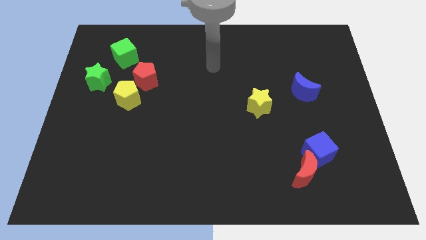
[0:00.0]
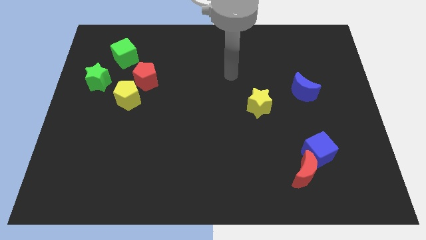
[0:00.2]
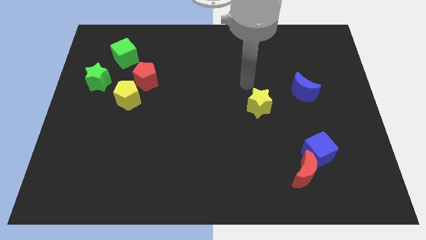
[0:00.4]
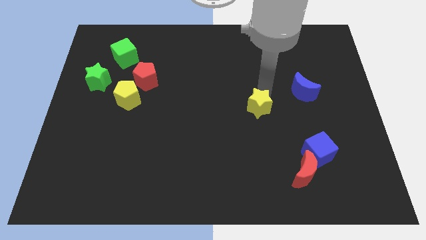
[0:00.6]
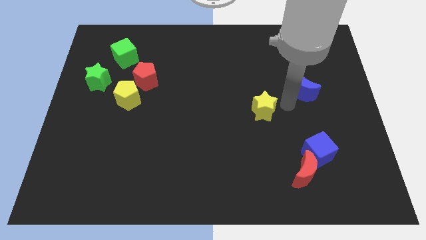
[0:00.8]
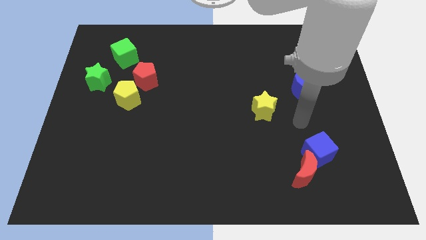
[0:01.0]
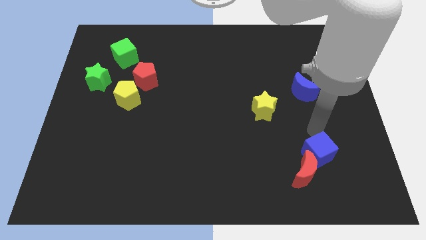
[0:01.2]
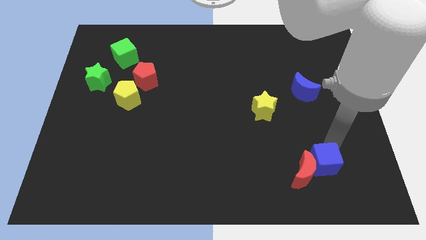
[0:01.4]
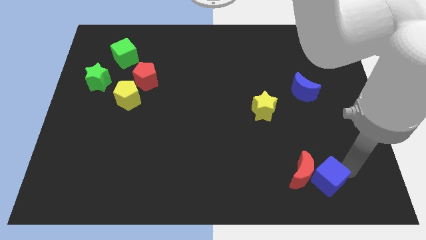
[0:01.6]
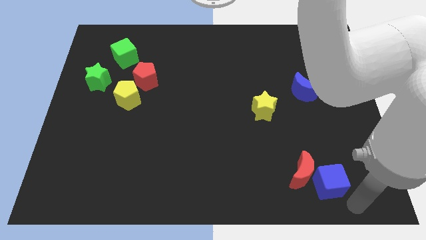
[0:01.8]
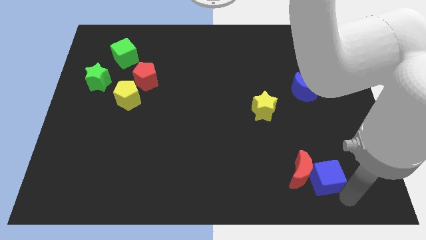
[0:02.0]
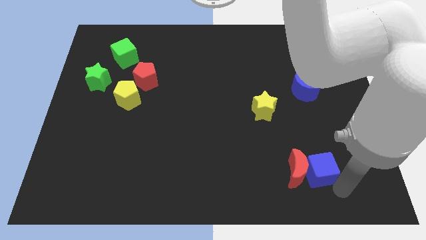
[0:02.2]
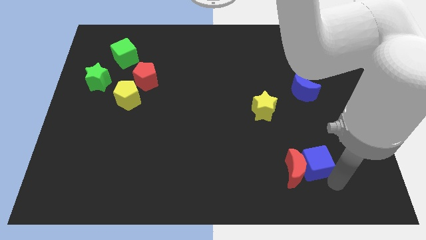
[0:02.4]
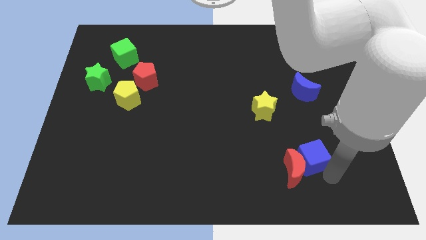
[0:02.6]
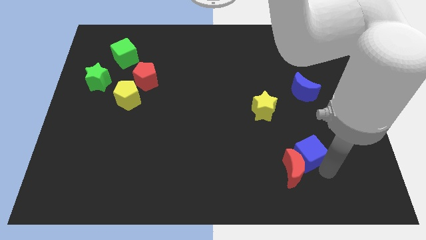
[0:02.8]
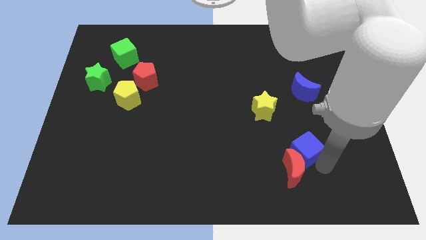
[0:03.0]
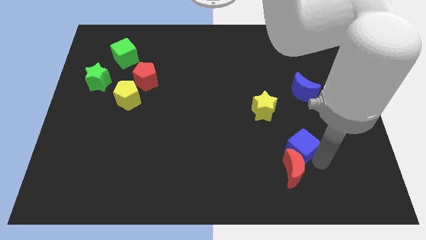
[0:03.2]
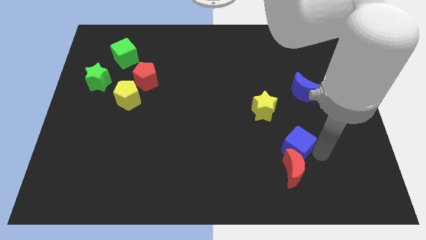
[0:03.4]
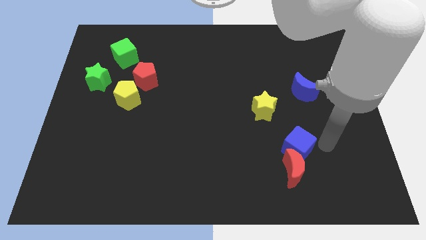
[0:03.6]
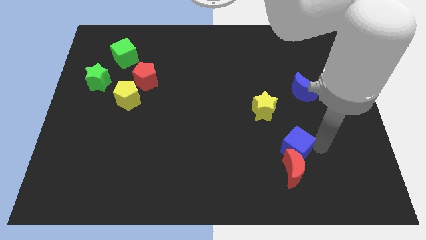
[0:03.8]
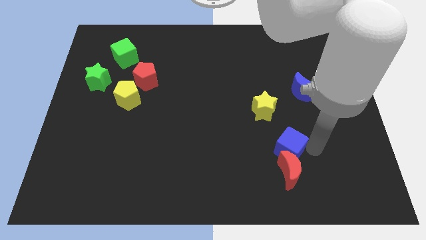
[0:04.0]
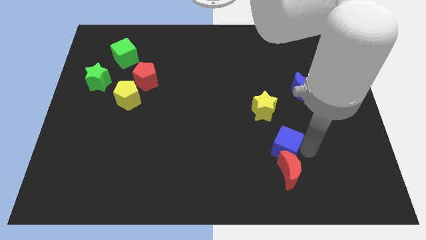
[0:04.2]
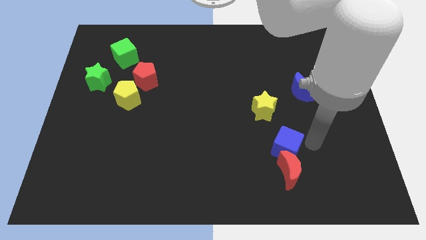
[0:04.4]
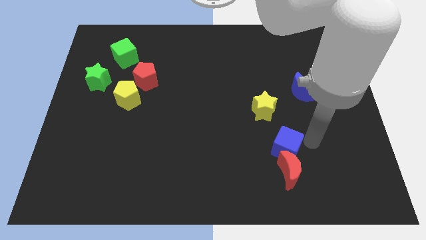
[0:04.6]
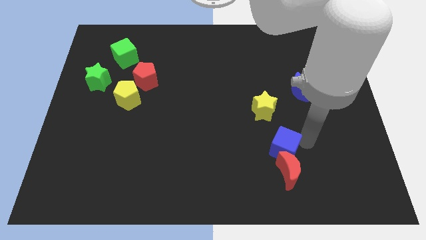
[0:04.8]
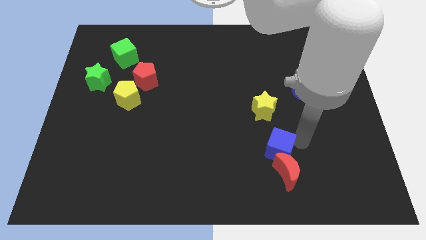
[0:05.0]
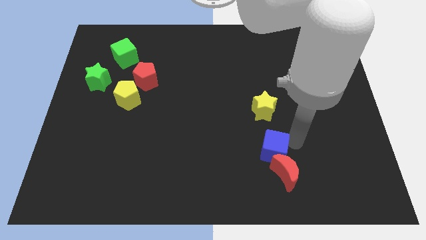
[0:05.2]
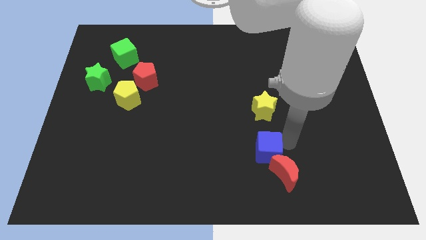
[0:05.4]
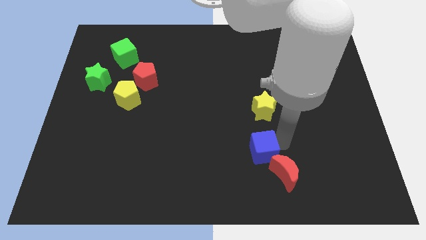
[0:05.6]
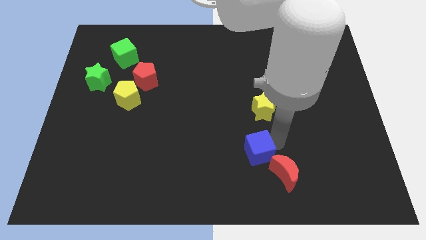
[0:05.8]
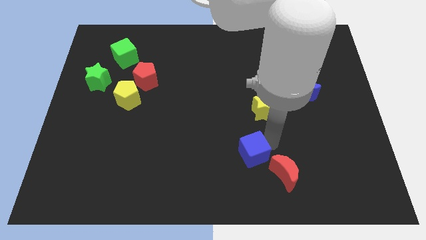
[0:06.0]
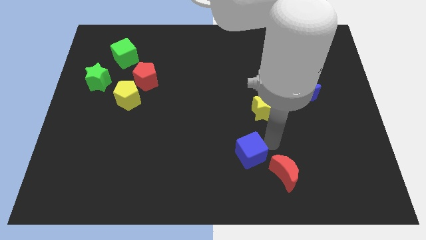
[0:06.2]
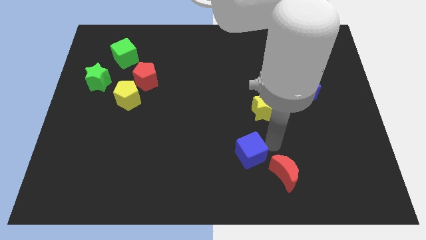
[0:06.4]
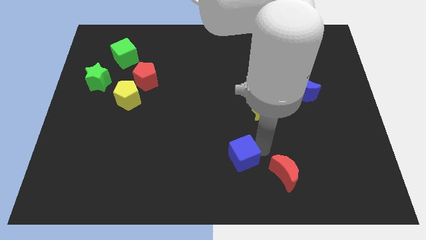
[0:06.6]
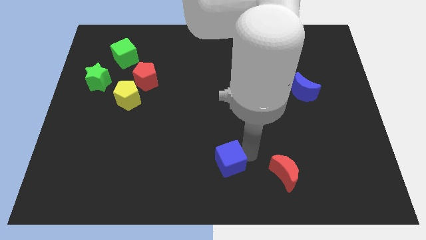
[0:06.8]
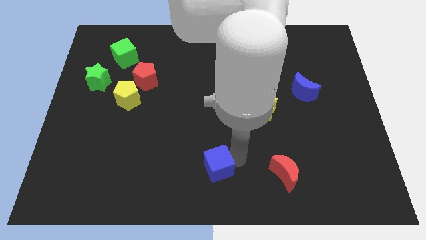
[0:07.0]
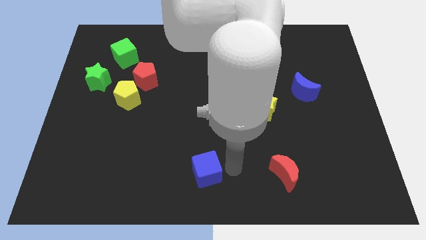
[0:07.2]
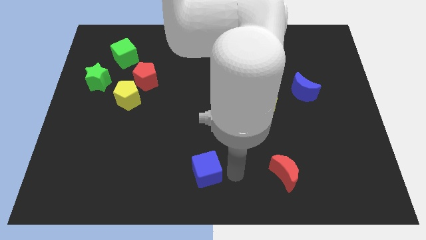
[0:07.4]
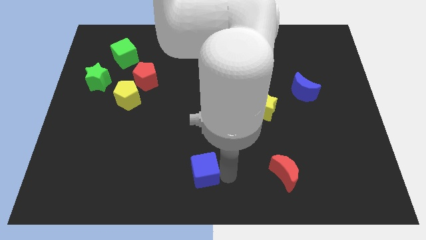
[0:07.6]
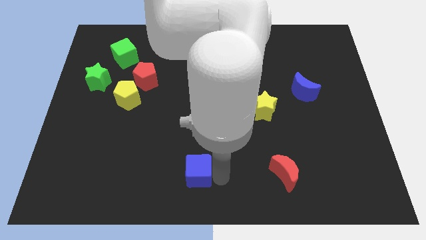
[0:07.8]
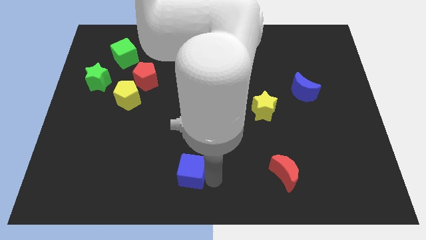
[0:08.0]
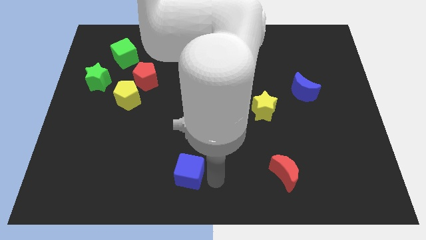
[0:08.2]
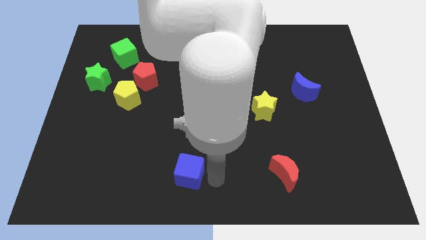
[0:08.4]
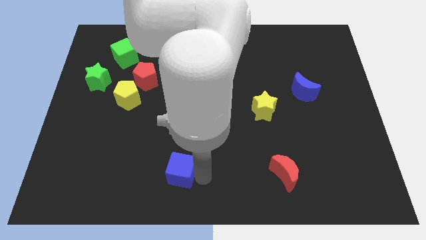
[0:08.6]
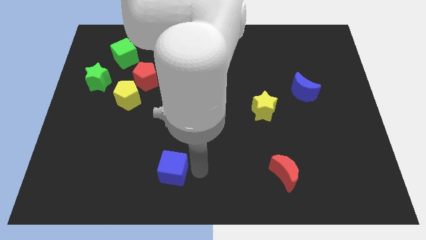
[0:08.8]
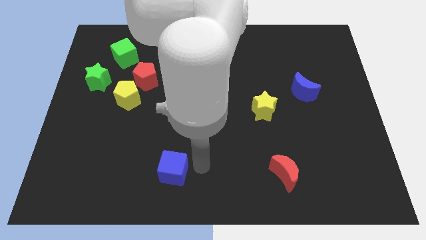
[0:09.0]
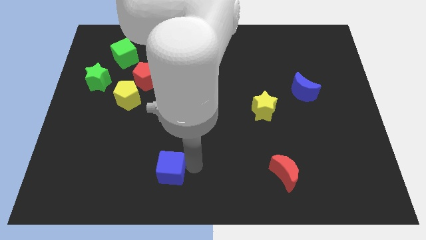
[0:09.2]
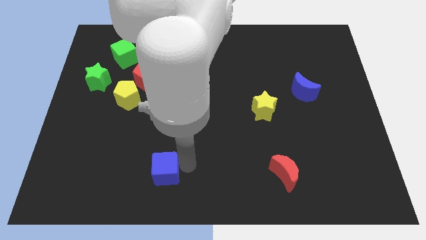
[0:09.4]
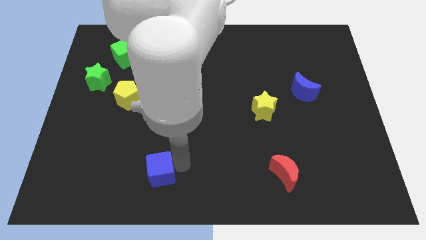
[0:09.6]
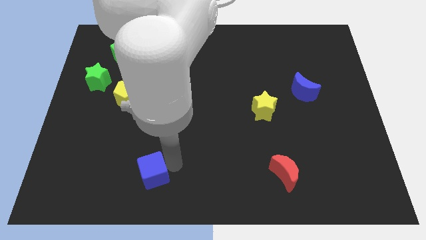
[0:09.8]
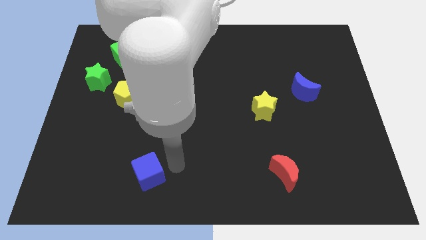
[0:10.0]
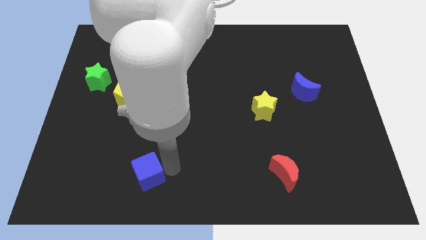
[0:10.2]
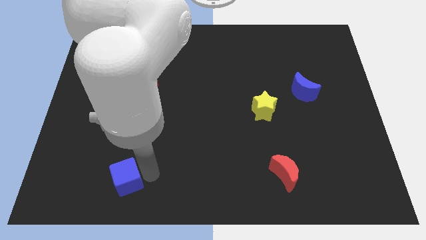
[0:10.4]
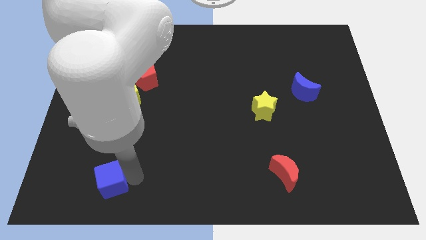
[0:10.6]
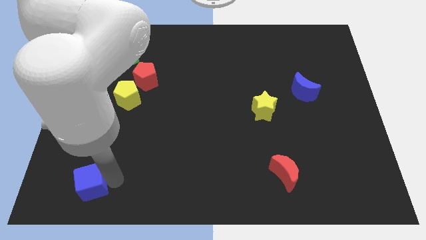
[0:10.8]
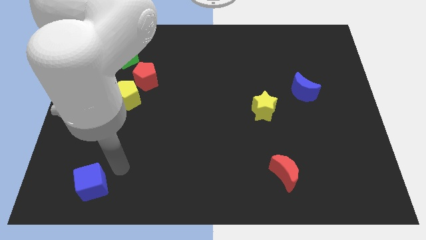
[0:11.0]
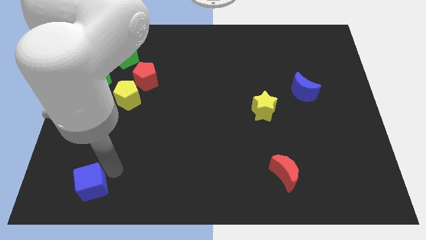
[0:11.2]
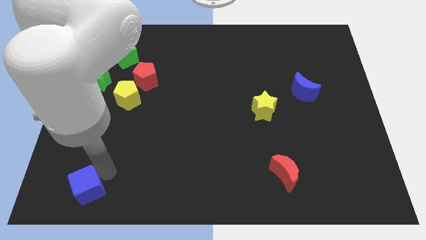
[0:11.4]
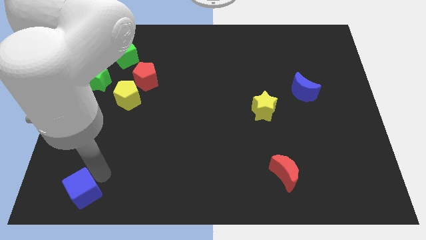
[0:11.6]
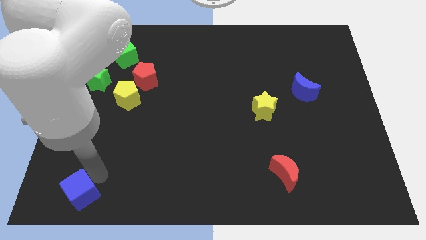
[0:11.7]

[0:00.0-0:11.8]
push the blue cube to the bottom left of the board

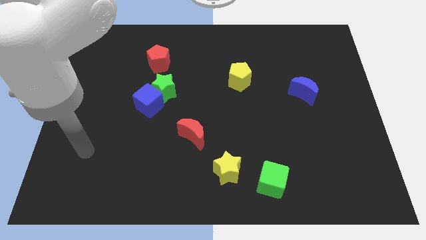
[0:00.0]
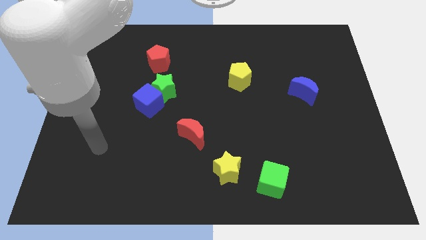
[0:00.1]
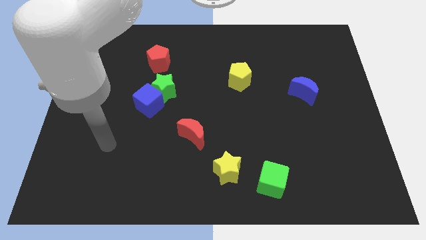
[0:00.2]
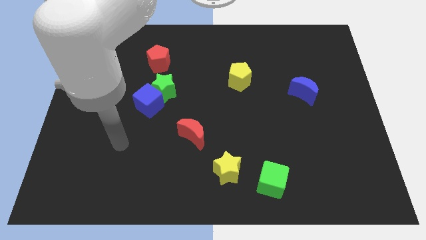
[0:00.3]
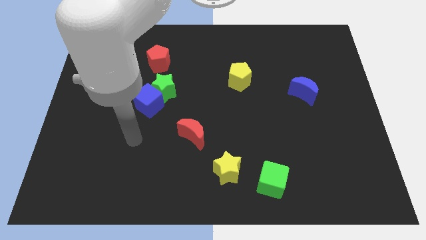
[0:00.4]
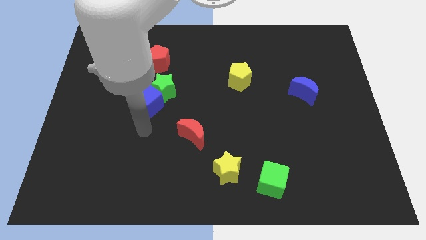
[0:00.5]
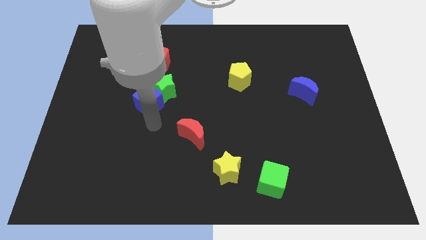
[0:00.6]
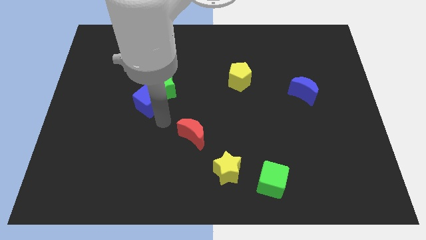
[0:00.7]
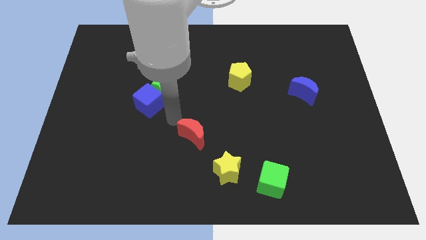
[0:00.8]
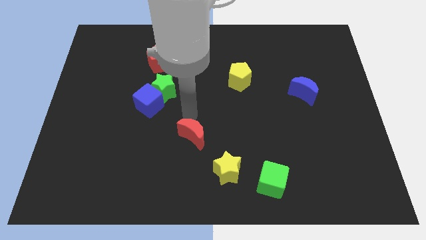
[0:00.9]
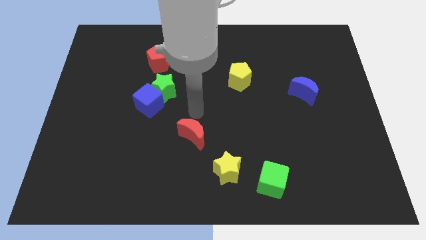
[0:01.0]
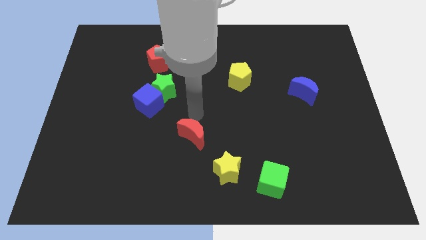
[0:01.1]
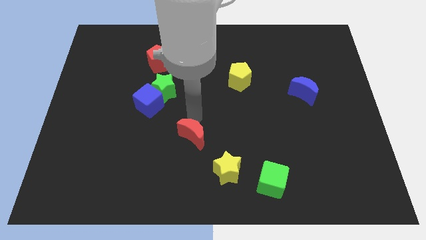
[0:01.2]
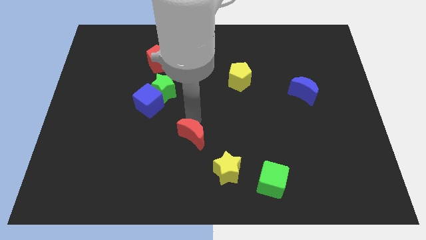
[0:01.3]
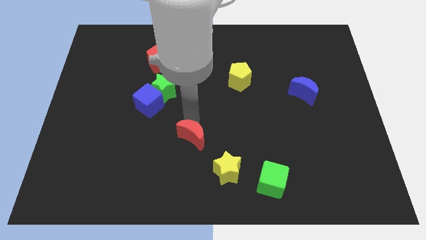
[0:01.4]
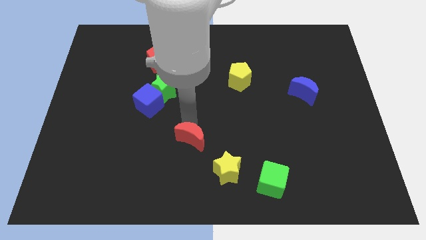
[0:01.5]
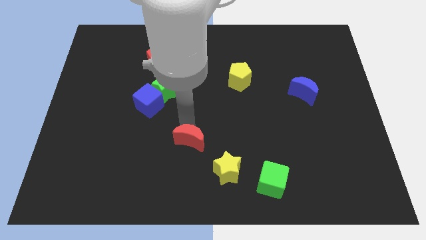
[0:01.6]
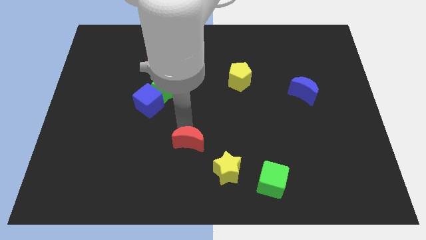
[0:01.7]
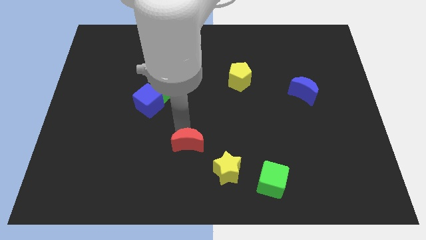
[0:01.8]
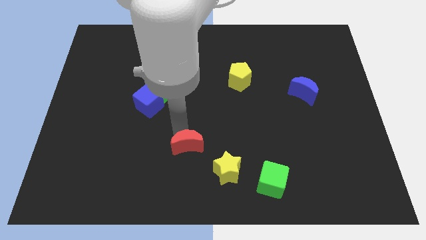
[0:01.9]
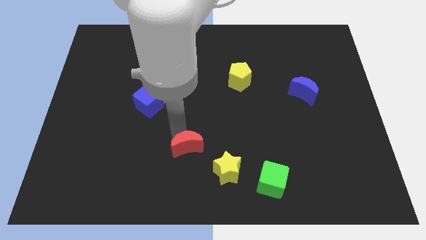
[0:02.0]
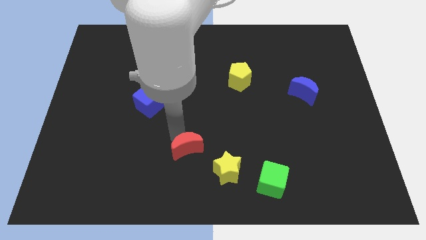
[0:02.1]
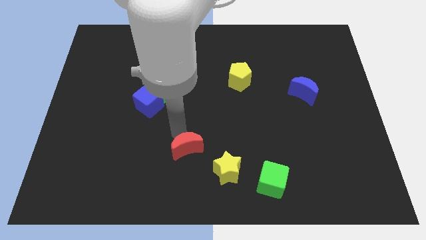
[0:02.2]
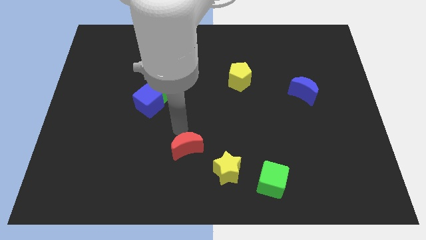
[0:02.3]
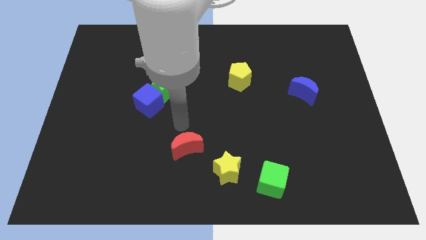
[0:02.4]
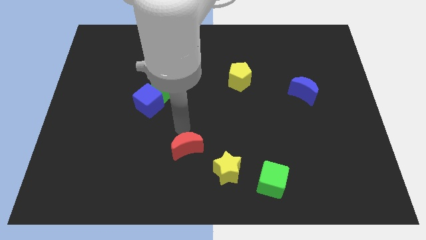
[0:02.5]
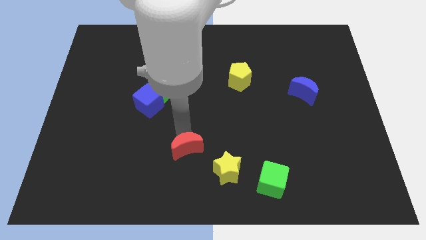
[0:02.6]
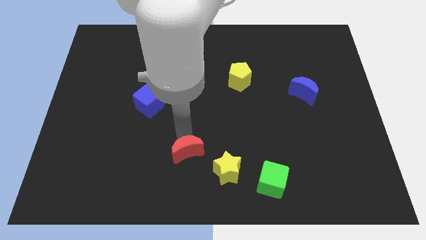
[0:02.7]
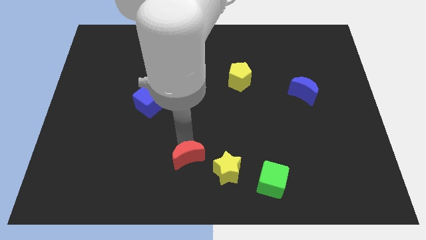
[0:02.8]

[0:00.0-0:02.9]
move the red moon to the bottom
